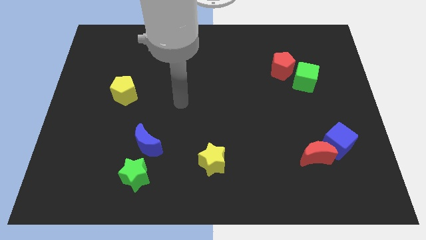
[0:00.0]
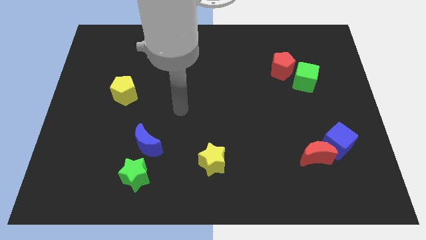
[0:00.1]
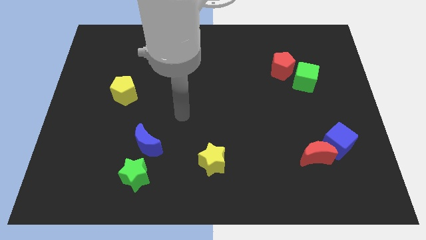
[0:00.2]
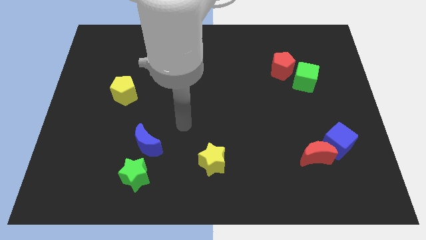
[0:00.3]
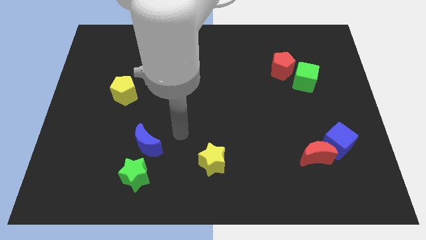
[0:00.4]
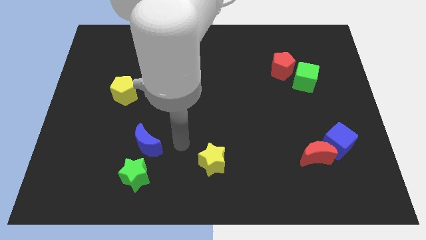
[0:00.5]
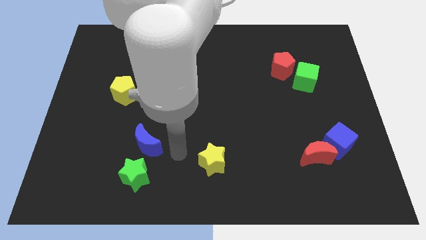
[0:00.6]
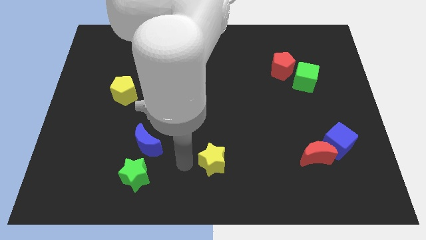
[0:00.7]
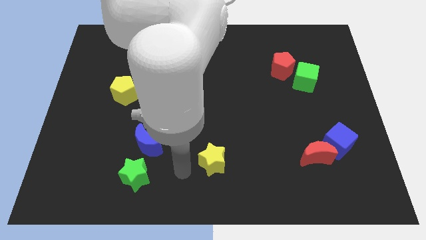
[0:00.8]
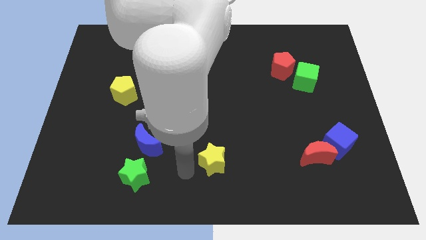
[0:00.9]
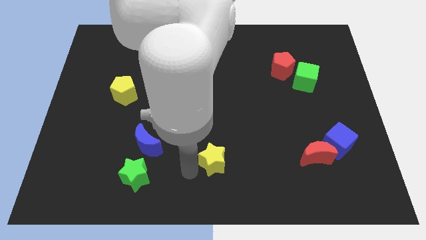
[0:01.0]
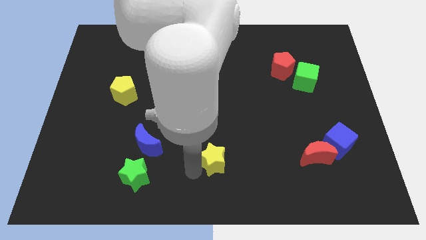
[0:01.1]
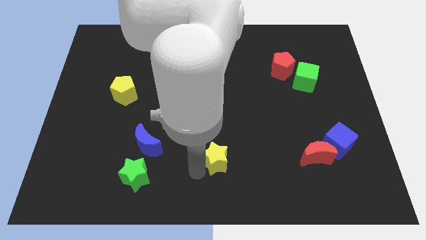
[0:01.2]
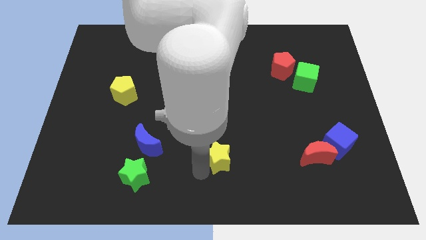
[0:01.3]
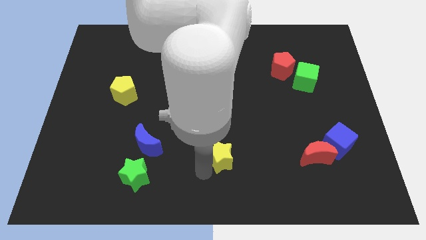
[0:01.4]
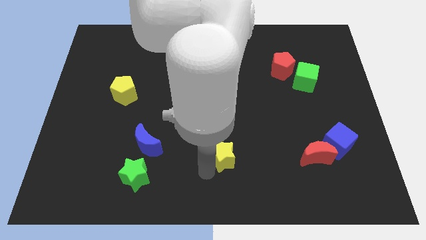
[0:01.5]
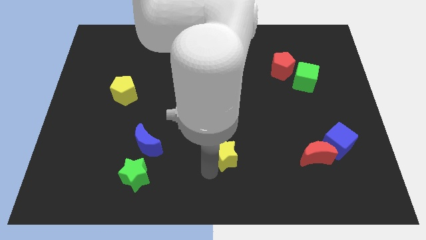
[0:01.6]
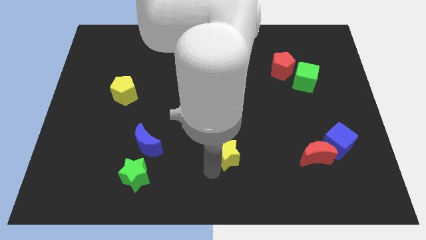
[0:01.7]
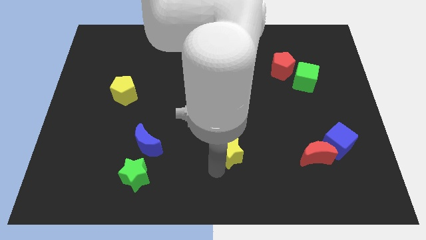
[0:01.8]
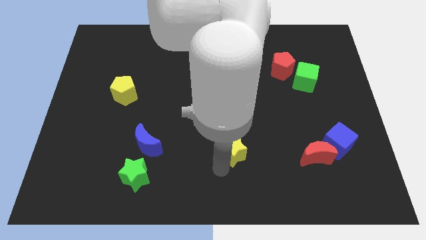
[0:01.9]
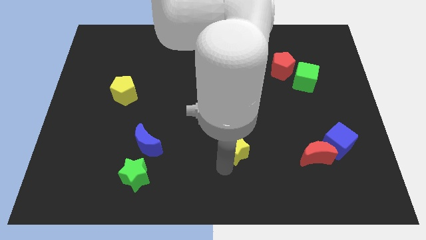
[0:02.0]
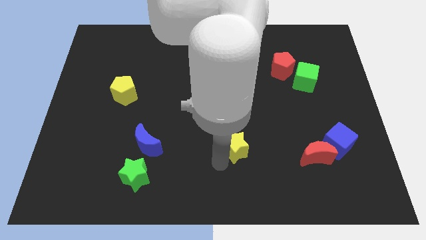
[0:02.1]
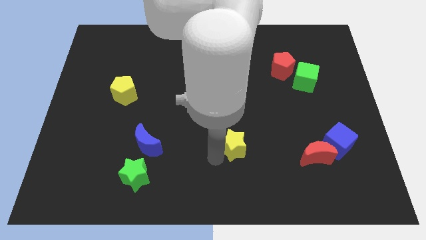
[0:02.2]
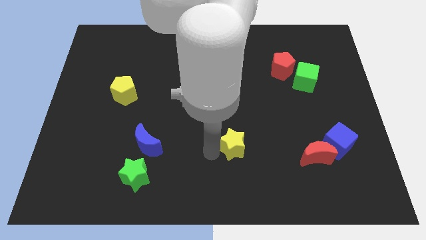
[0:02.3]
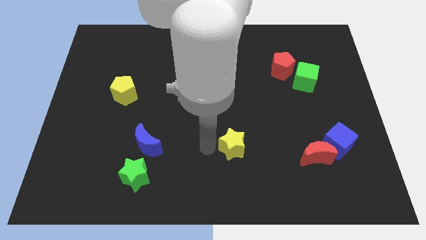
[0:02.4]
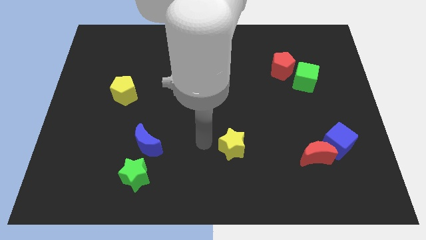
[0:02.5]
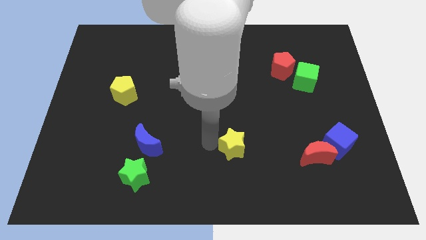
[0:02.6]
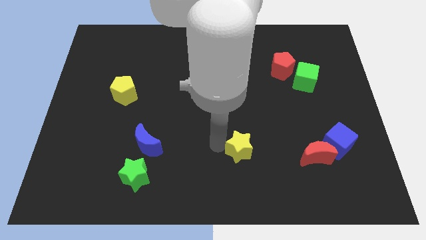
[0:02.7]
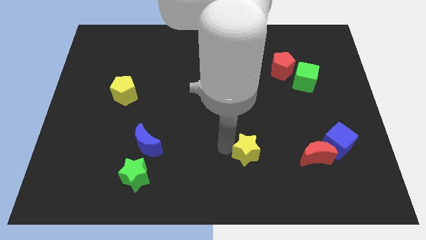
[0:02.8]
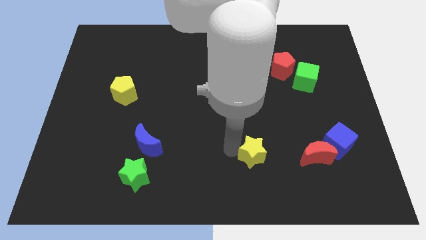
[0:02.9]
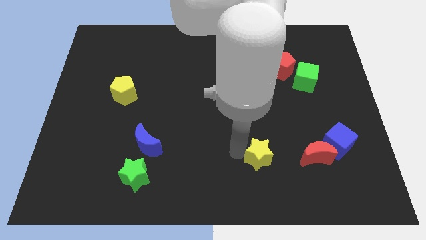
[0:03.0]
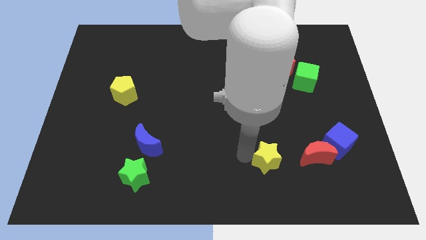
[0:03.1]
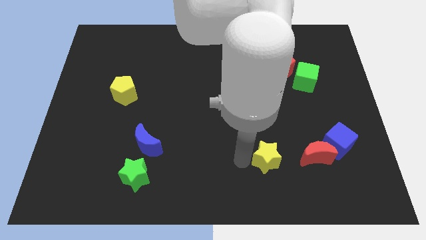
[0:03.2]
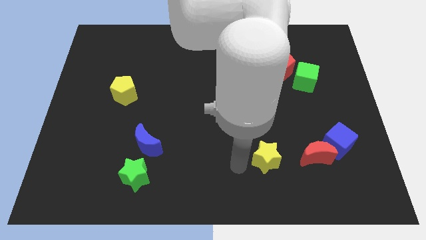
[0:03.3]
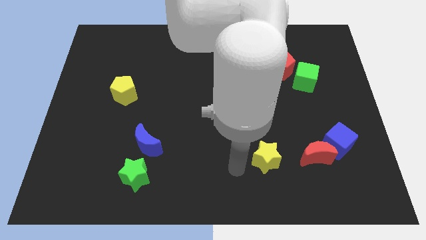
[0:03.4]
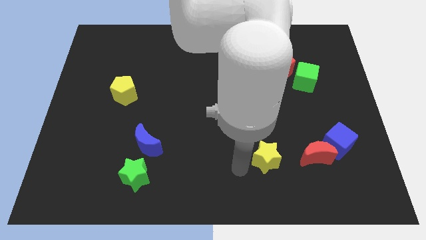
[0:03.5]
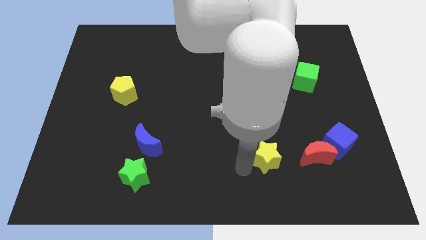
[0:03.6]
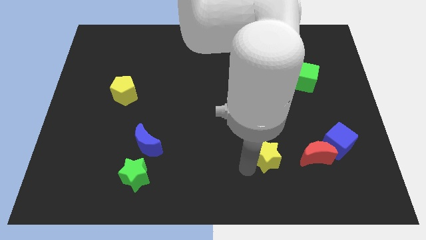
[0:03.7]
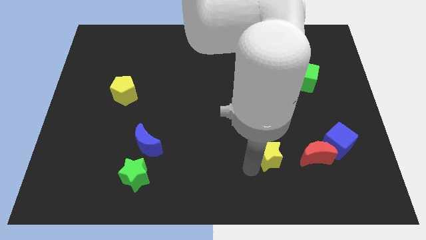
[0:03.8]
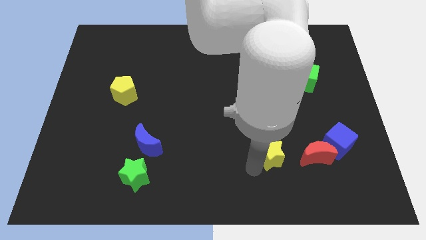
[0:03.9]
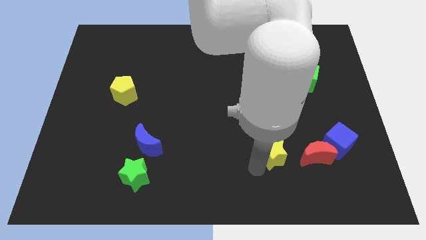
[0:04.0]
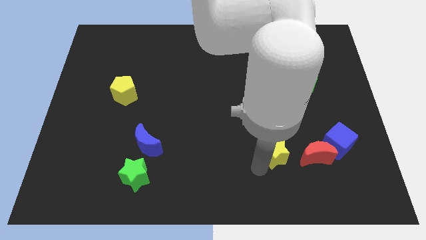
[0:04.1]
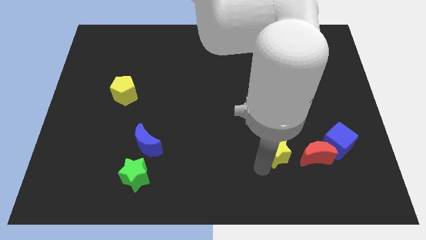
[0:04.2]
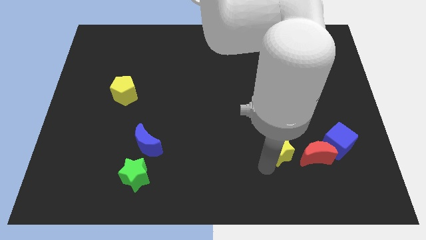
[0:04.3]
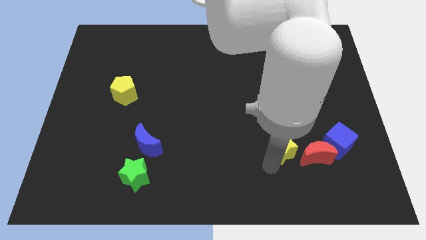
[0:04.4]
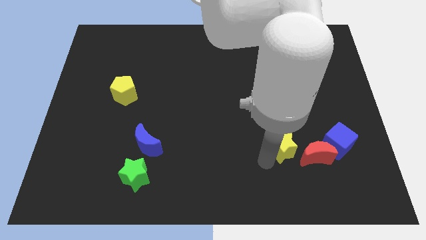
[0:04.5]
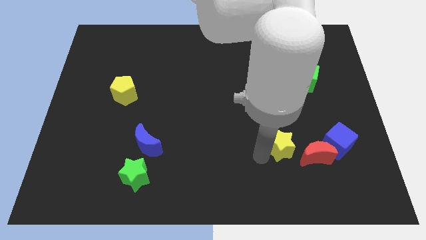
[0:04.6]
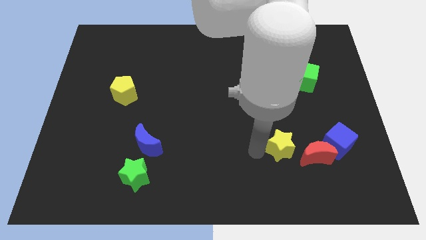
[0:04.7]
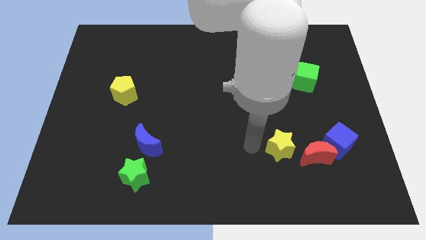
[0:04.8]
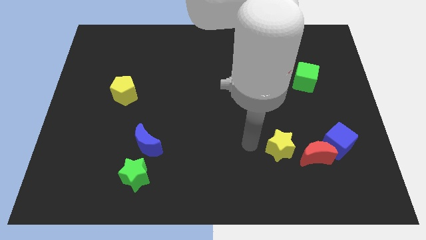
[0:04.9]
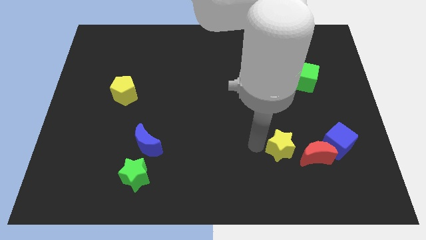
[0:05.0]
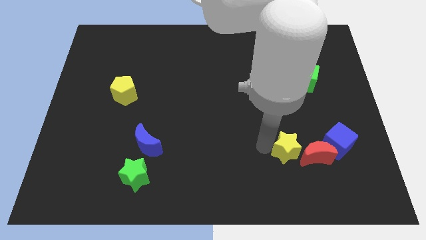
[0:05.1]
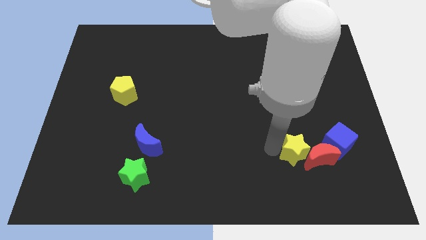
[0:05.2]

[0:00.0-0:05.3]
push the yellow star close to the red moon

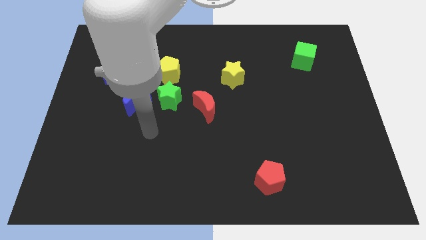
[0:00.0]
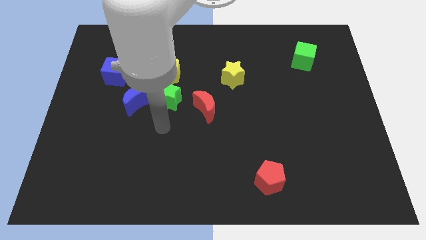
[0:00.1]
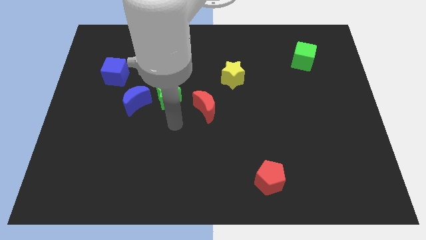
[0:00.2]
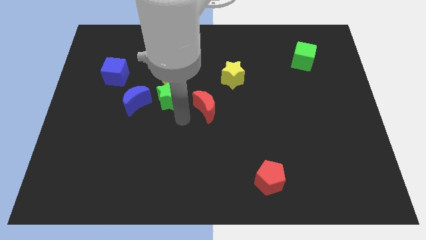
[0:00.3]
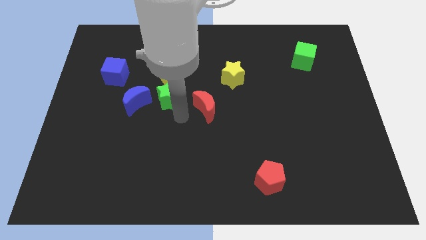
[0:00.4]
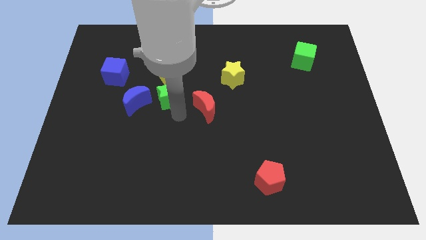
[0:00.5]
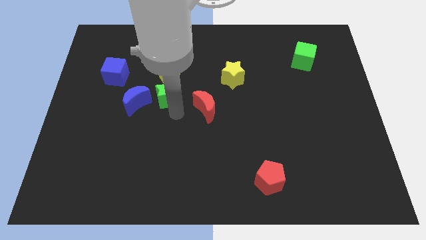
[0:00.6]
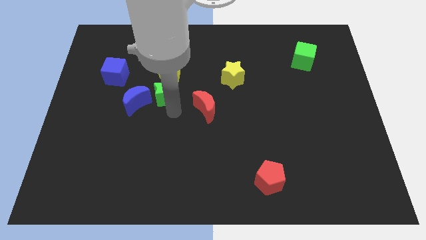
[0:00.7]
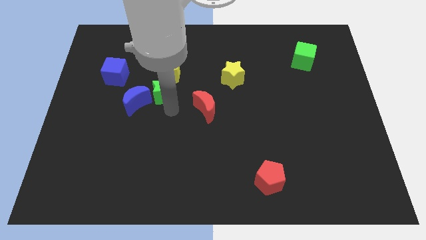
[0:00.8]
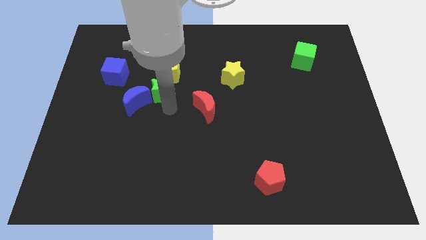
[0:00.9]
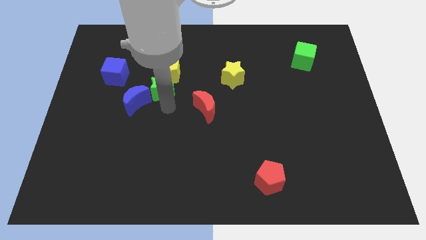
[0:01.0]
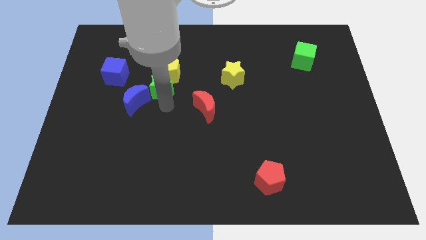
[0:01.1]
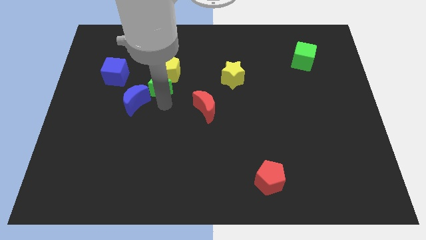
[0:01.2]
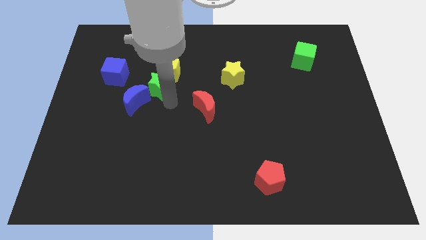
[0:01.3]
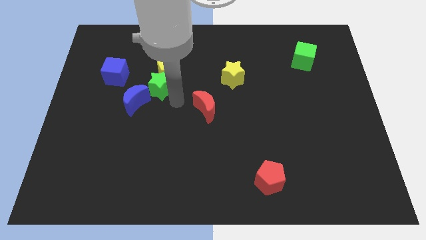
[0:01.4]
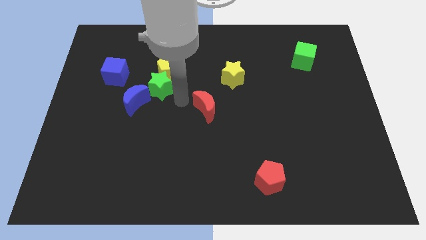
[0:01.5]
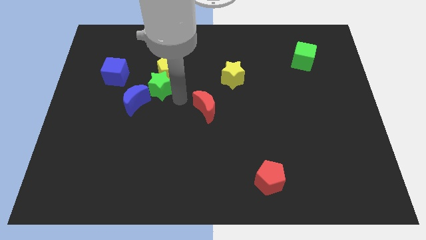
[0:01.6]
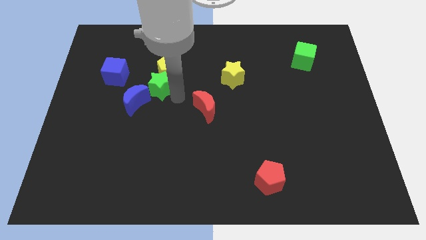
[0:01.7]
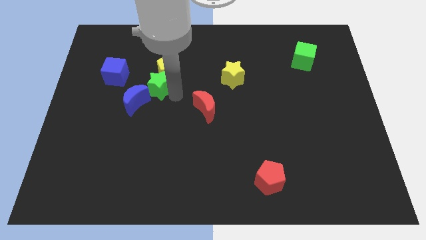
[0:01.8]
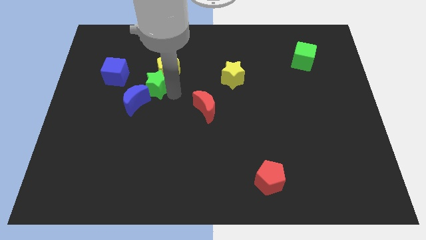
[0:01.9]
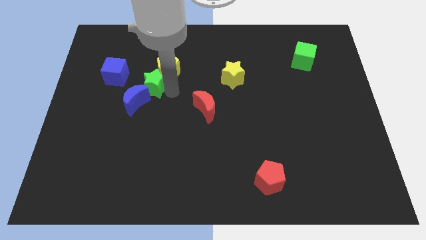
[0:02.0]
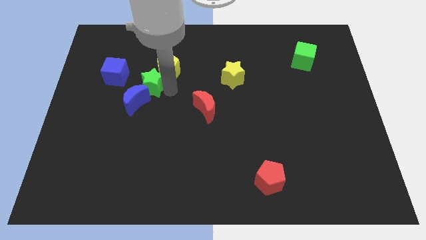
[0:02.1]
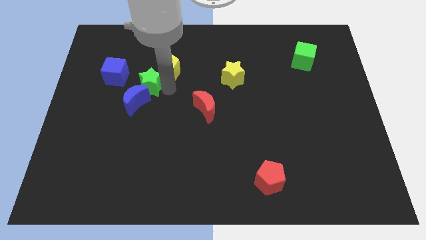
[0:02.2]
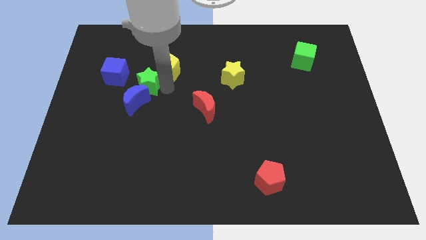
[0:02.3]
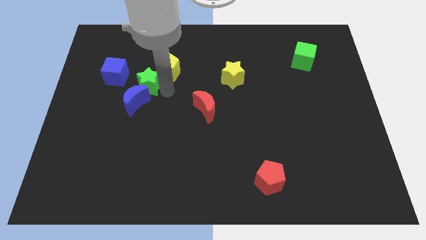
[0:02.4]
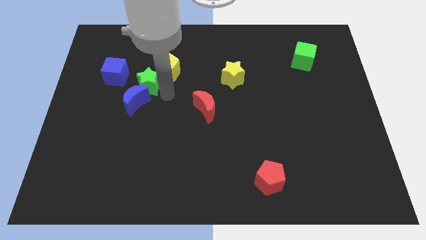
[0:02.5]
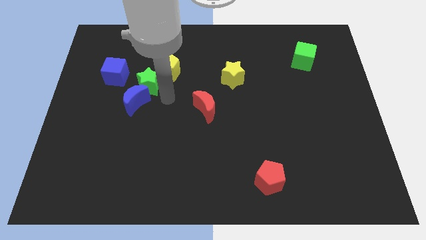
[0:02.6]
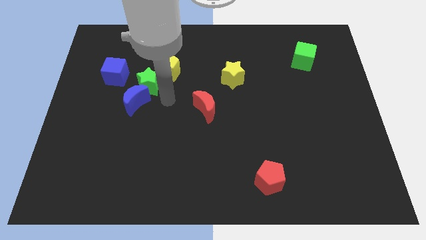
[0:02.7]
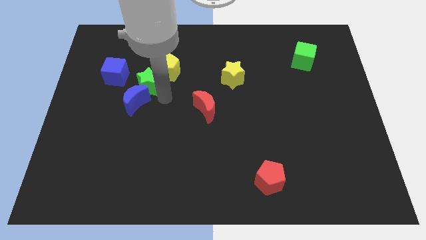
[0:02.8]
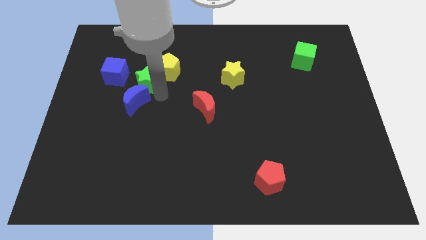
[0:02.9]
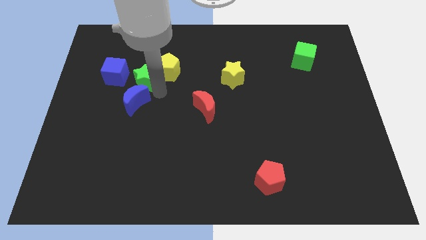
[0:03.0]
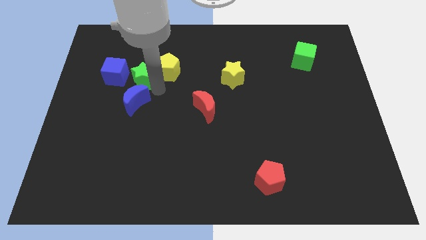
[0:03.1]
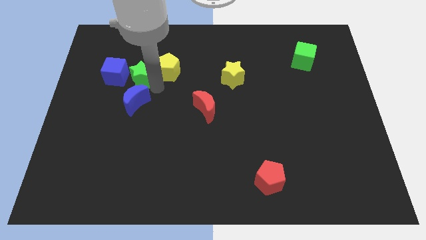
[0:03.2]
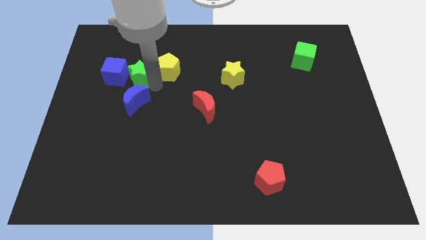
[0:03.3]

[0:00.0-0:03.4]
slide the green star next to the blue cube
